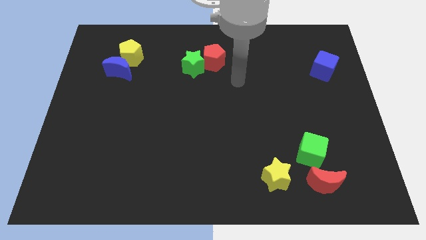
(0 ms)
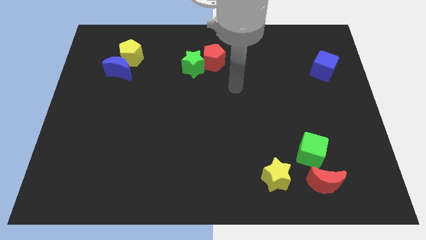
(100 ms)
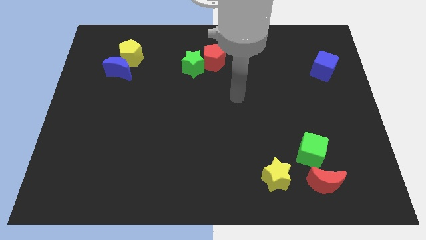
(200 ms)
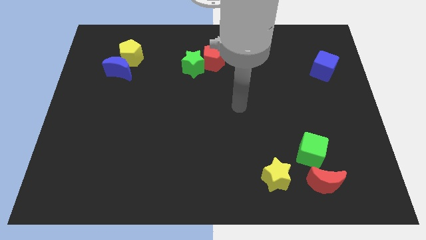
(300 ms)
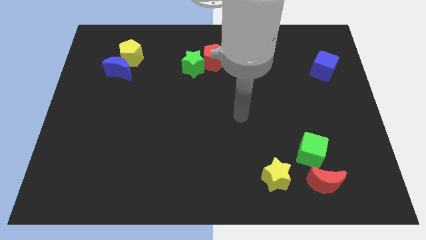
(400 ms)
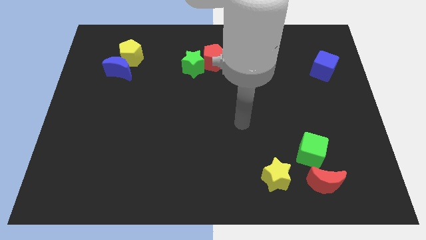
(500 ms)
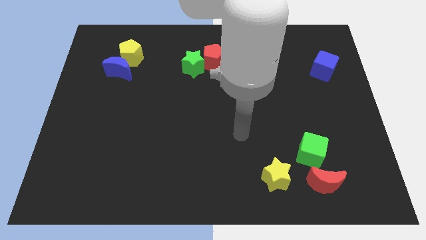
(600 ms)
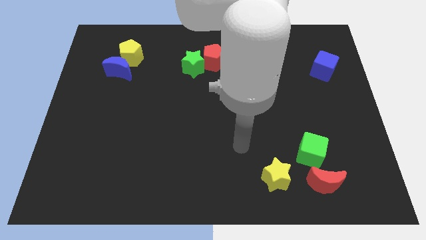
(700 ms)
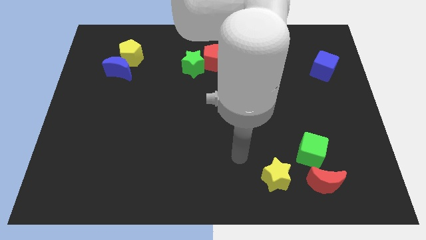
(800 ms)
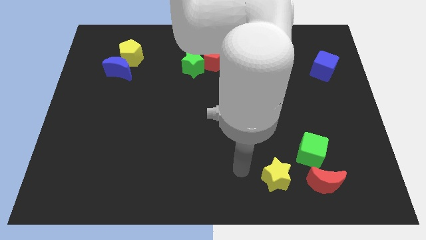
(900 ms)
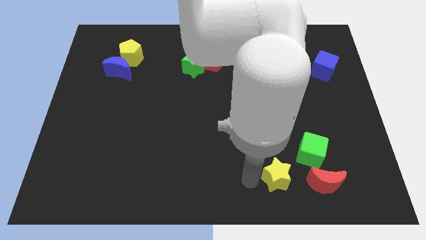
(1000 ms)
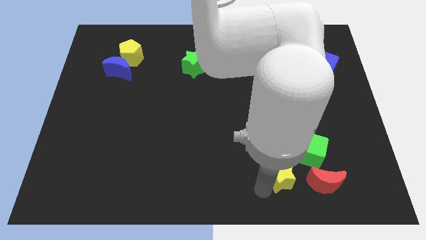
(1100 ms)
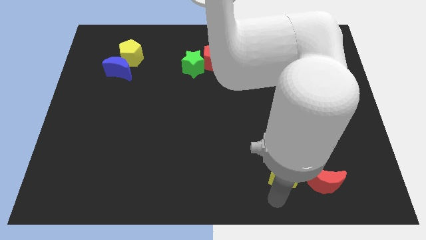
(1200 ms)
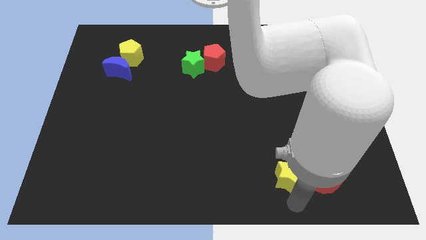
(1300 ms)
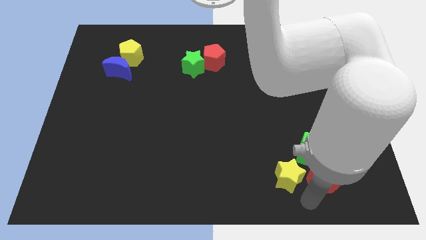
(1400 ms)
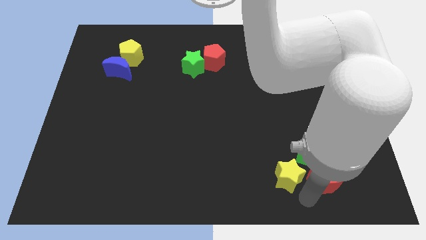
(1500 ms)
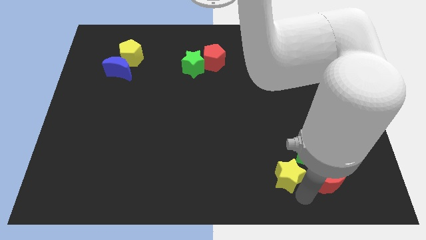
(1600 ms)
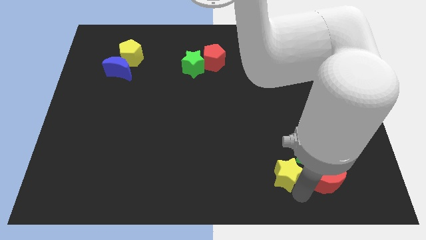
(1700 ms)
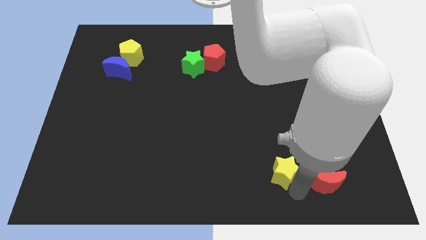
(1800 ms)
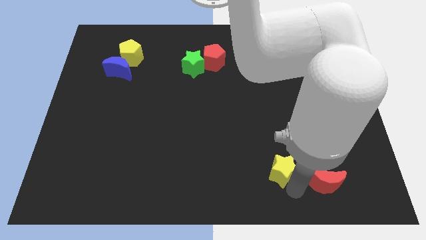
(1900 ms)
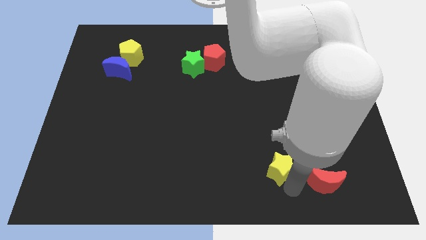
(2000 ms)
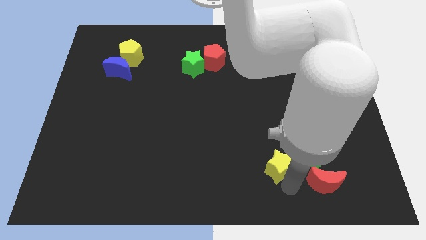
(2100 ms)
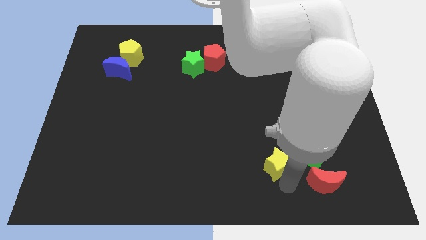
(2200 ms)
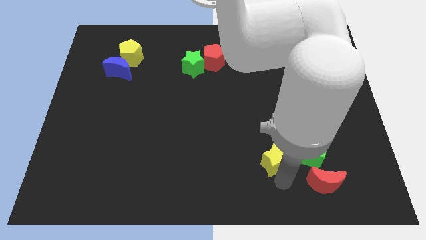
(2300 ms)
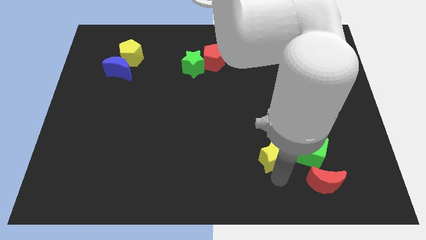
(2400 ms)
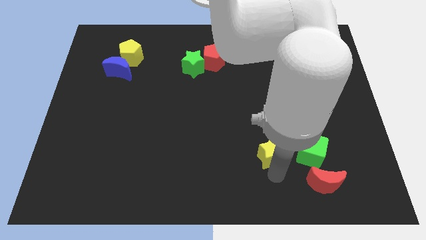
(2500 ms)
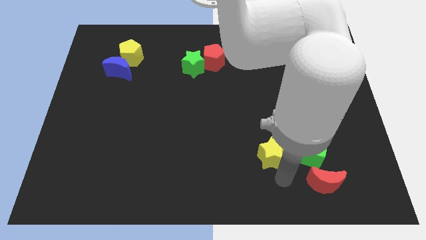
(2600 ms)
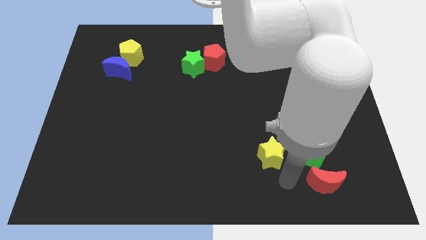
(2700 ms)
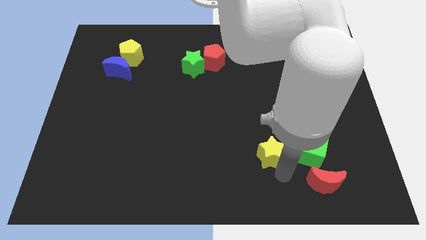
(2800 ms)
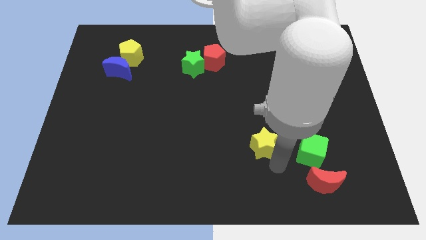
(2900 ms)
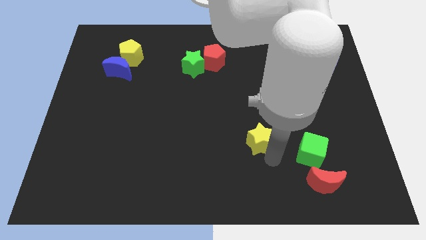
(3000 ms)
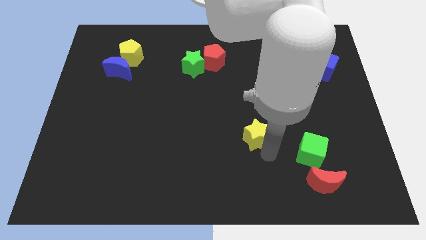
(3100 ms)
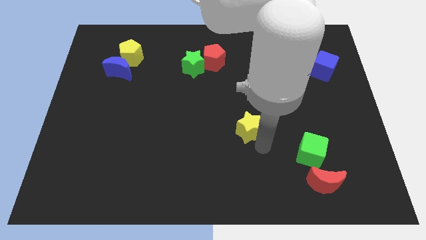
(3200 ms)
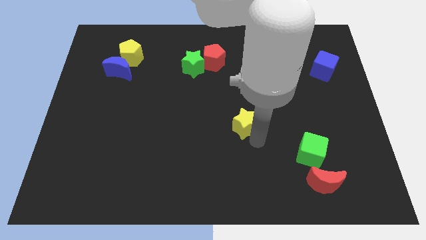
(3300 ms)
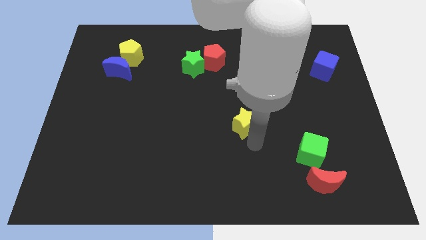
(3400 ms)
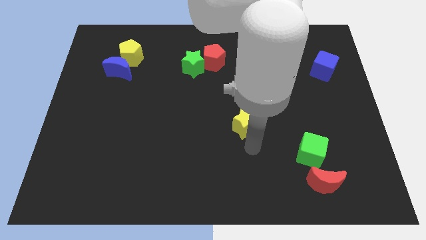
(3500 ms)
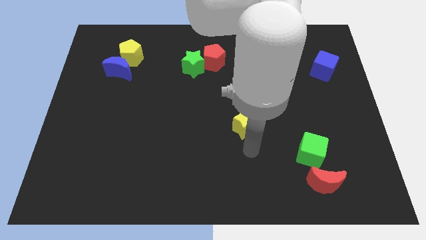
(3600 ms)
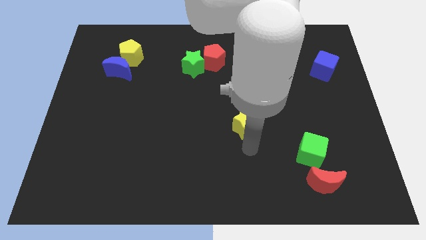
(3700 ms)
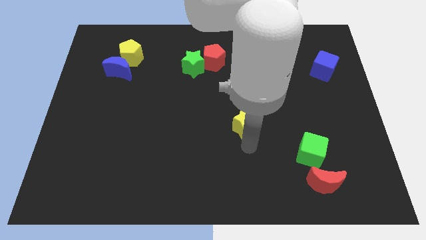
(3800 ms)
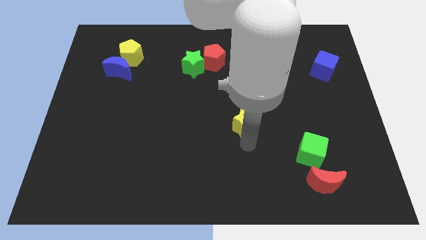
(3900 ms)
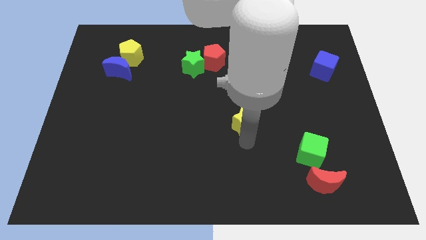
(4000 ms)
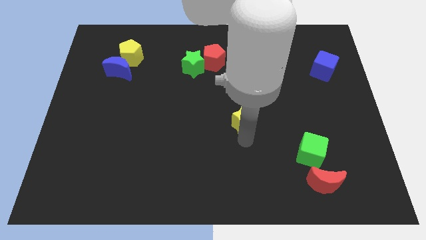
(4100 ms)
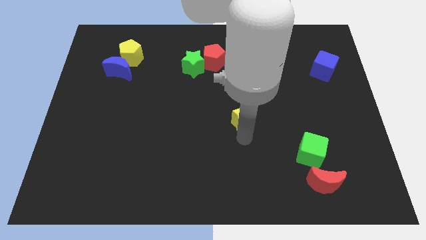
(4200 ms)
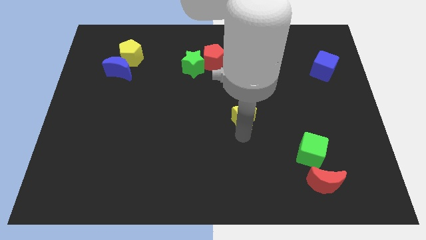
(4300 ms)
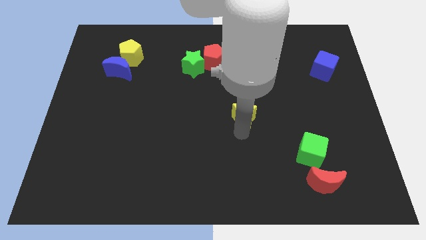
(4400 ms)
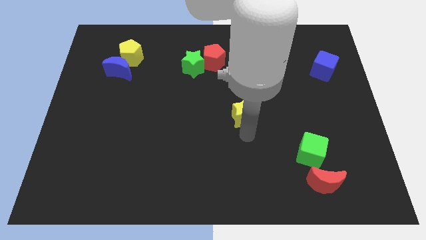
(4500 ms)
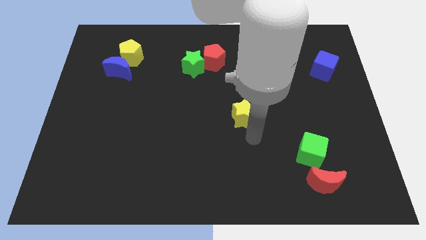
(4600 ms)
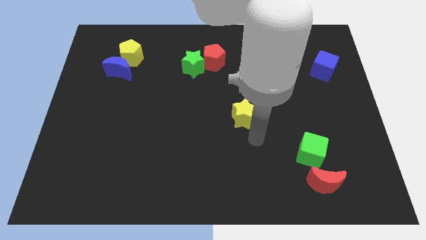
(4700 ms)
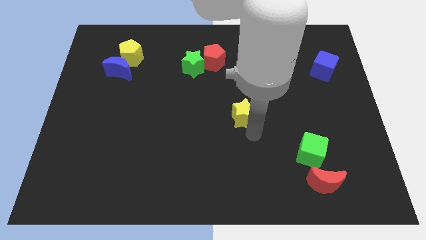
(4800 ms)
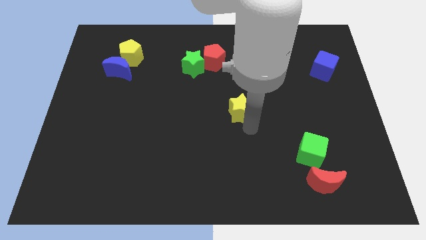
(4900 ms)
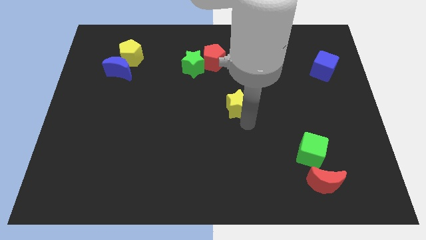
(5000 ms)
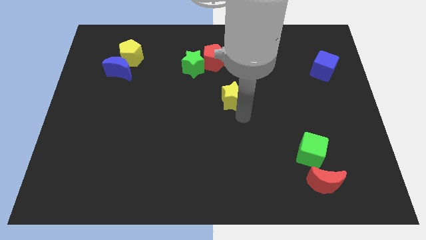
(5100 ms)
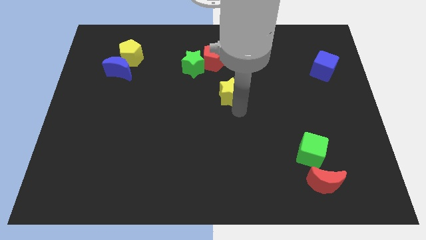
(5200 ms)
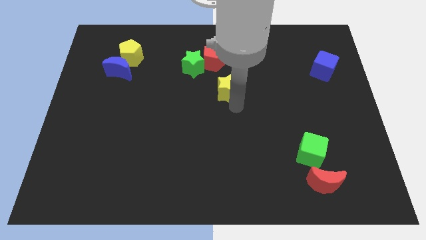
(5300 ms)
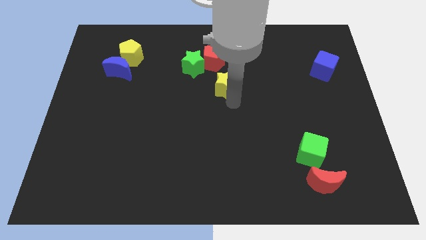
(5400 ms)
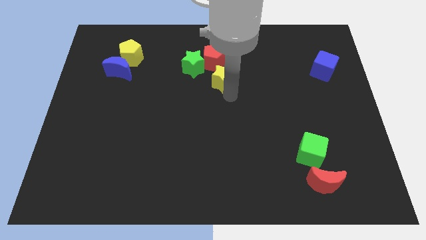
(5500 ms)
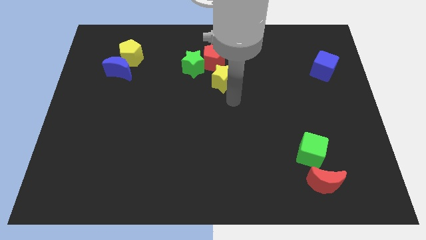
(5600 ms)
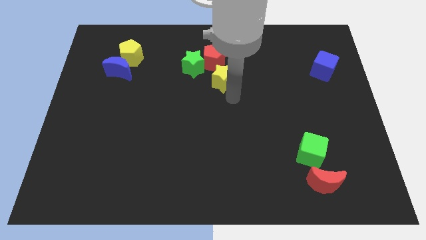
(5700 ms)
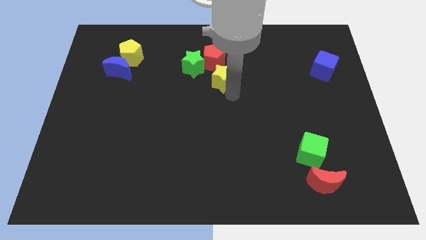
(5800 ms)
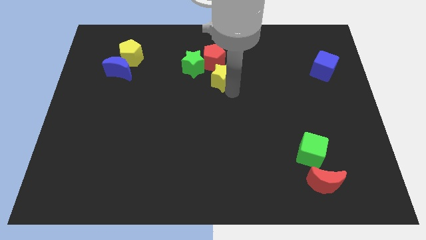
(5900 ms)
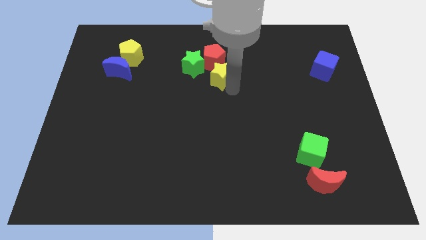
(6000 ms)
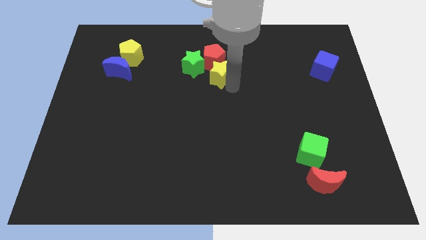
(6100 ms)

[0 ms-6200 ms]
slide the yellow star towards the red pentagon

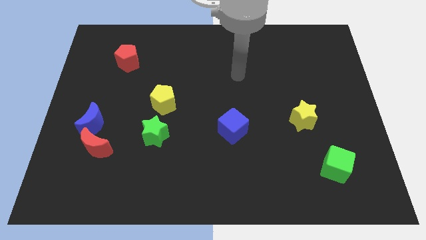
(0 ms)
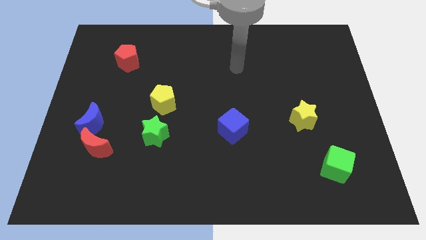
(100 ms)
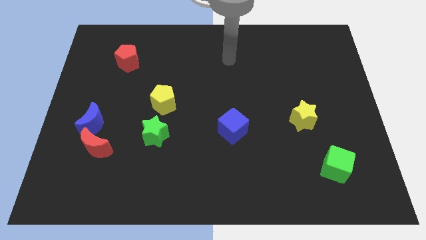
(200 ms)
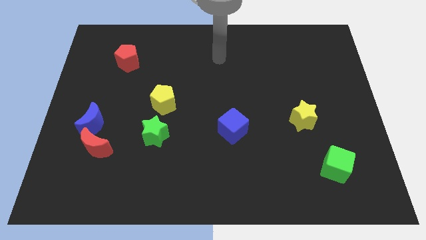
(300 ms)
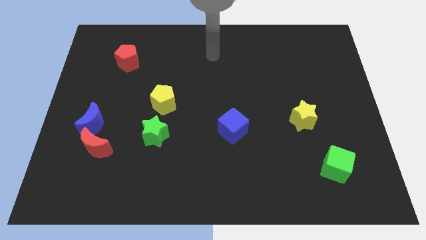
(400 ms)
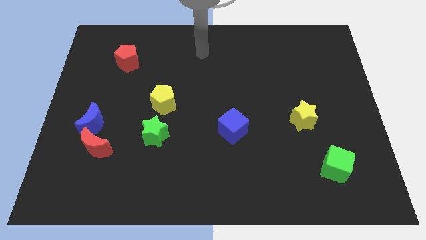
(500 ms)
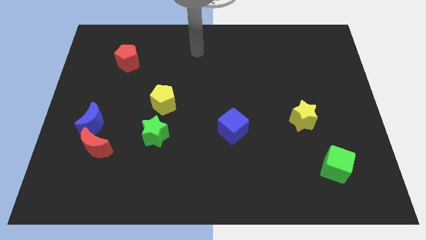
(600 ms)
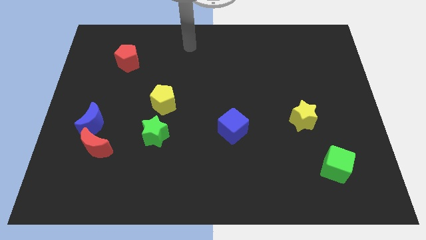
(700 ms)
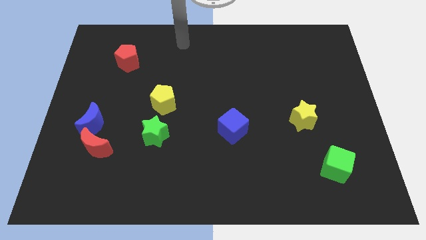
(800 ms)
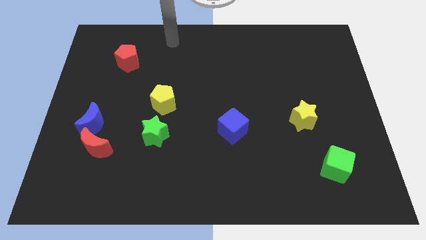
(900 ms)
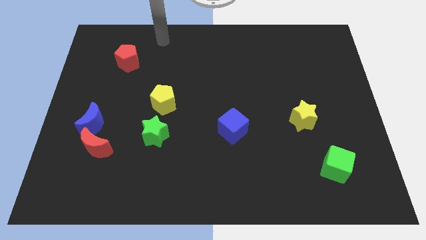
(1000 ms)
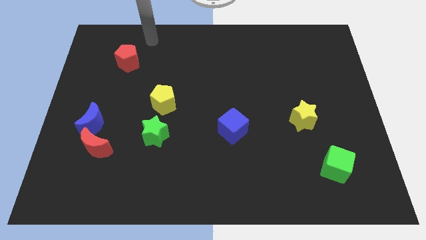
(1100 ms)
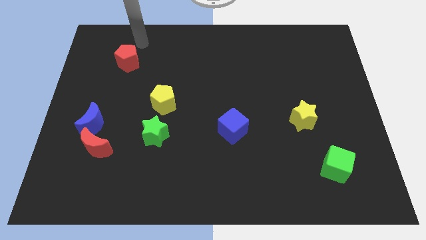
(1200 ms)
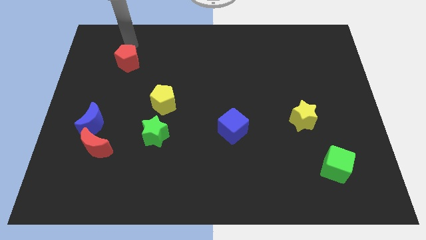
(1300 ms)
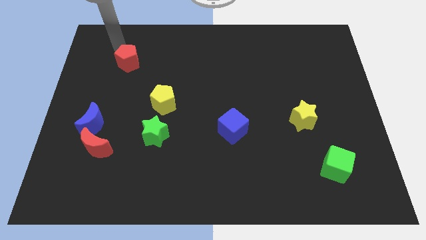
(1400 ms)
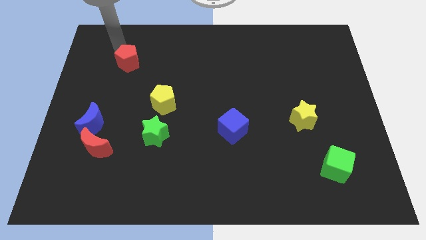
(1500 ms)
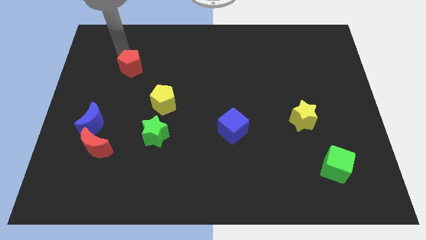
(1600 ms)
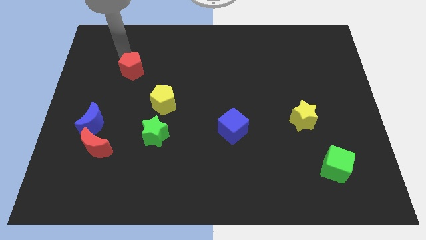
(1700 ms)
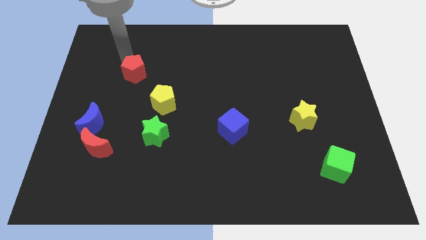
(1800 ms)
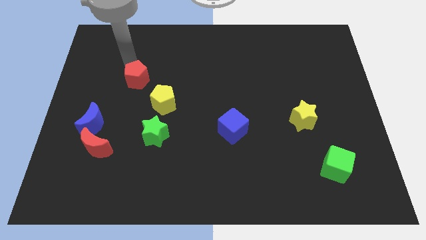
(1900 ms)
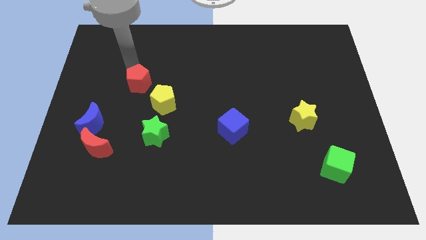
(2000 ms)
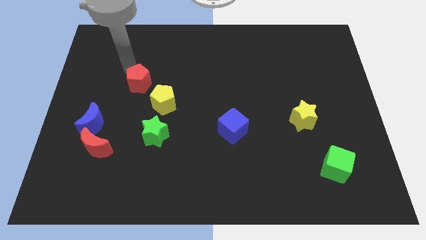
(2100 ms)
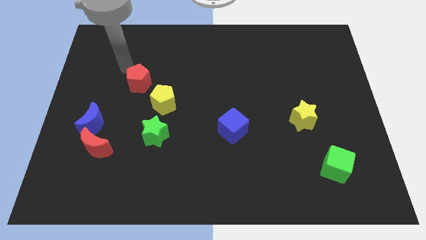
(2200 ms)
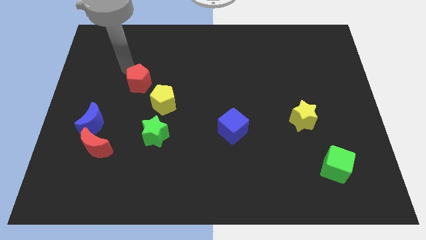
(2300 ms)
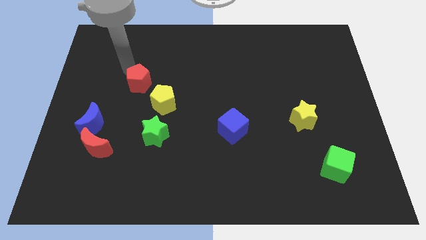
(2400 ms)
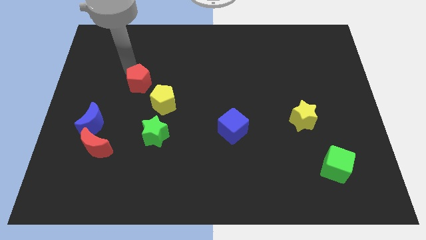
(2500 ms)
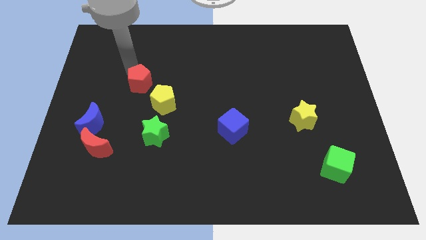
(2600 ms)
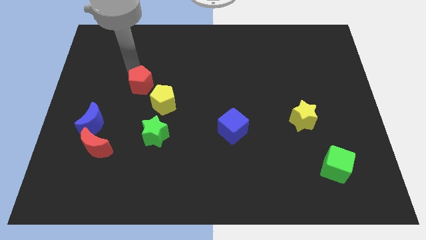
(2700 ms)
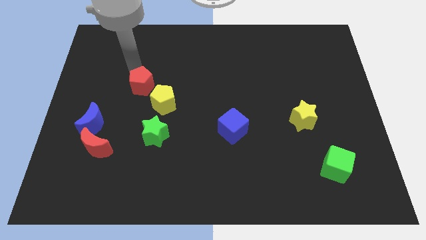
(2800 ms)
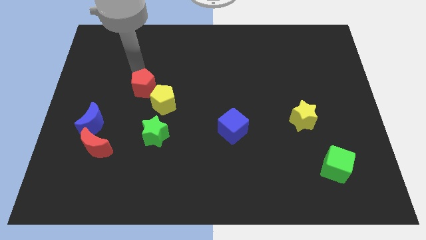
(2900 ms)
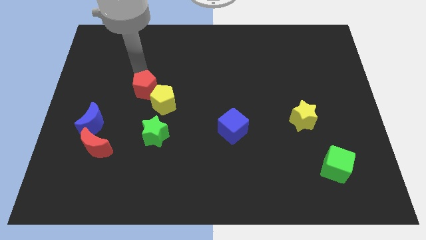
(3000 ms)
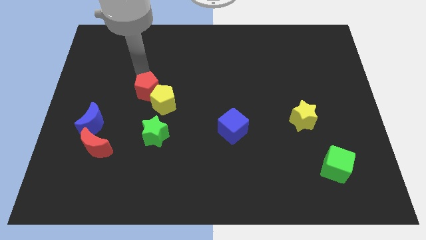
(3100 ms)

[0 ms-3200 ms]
slide the red pentagon towards the yellow pentagon
